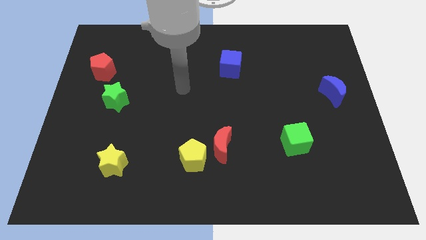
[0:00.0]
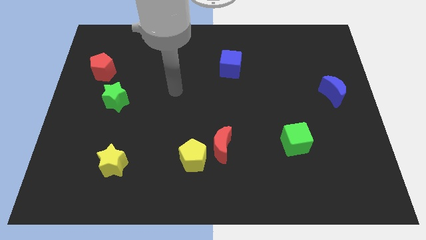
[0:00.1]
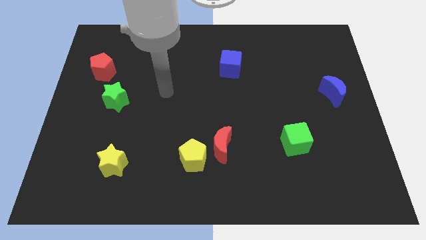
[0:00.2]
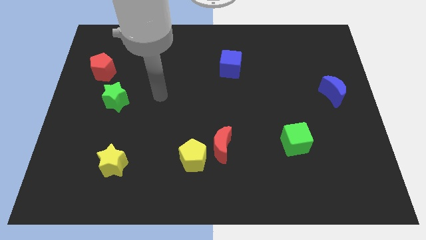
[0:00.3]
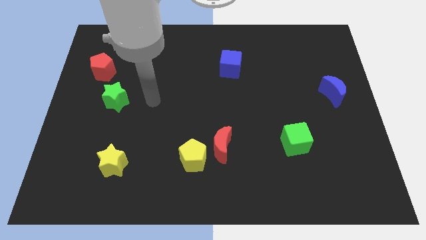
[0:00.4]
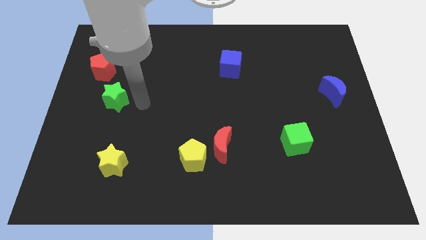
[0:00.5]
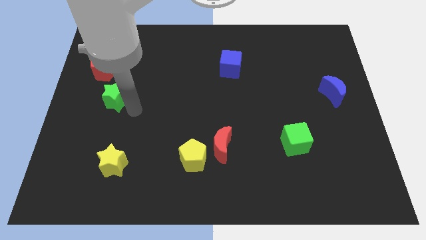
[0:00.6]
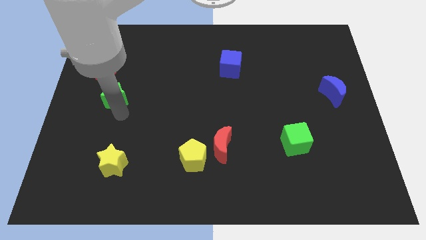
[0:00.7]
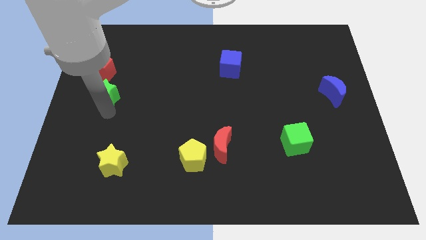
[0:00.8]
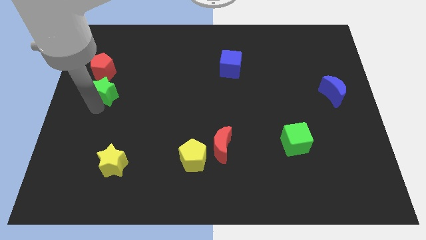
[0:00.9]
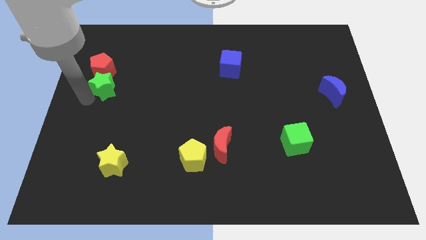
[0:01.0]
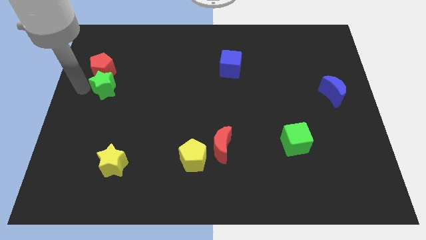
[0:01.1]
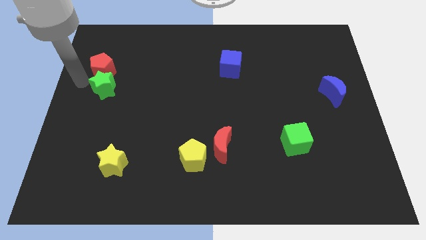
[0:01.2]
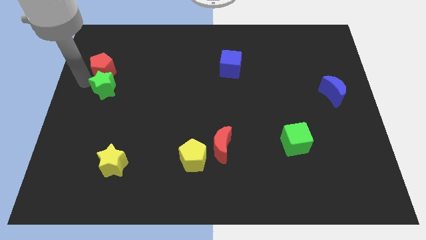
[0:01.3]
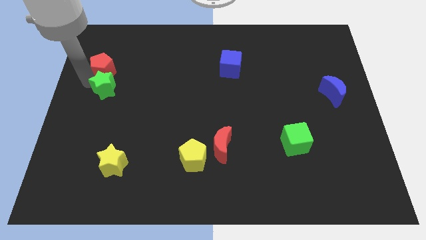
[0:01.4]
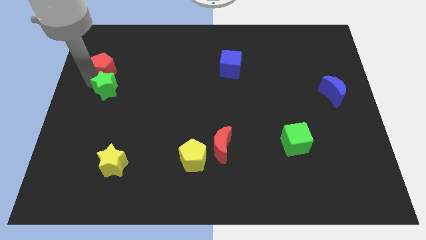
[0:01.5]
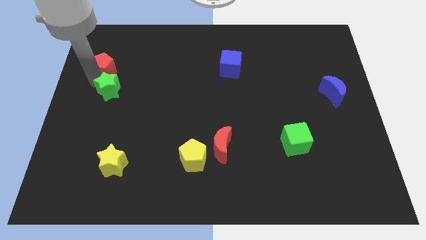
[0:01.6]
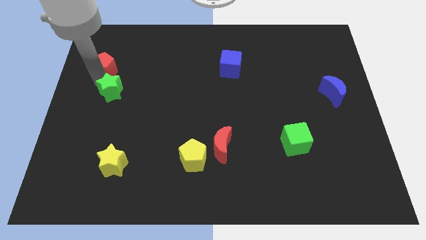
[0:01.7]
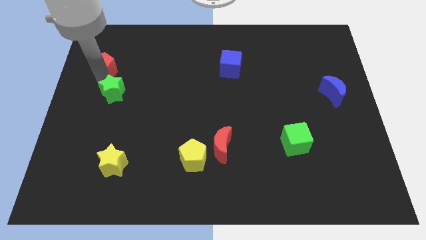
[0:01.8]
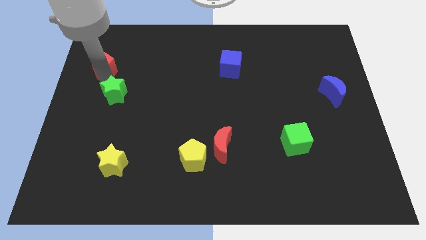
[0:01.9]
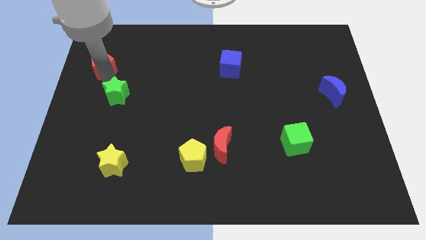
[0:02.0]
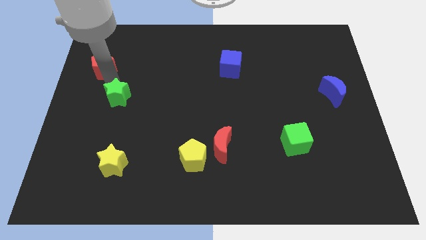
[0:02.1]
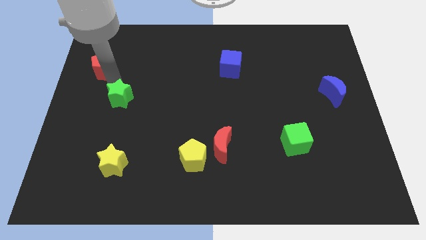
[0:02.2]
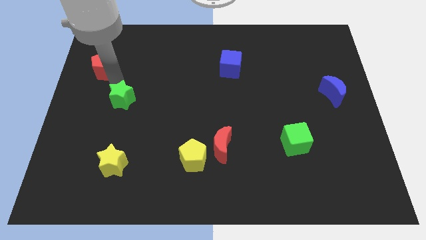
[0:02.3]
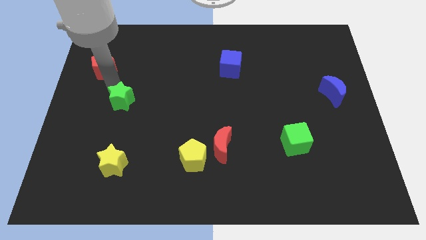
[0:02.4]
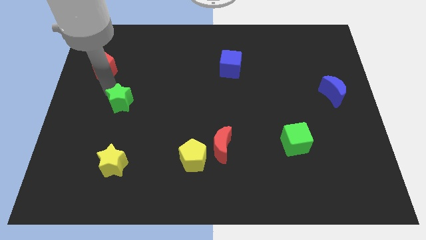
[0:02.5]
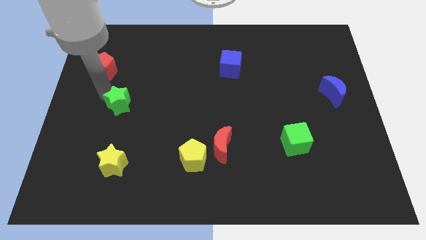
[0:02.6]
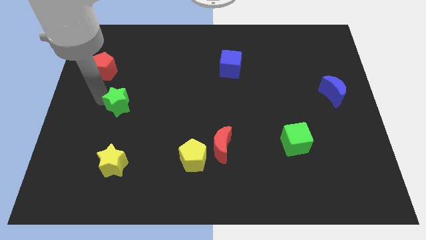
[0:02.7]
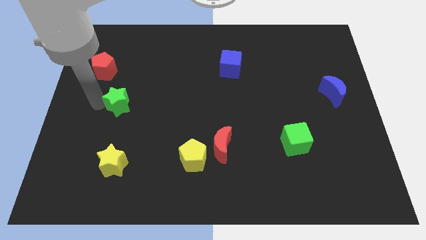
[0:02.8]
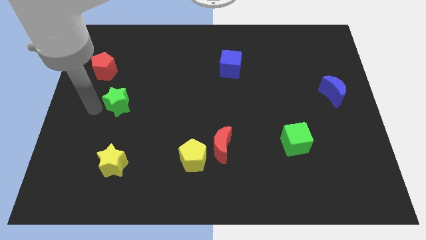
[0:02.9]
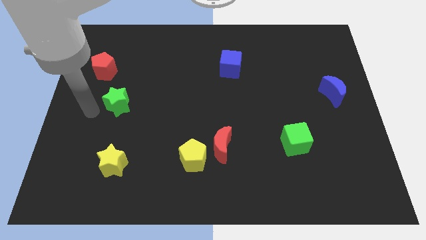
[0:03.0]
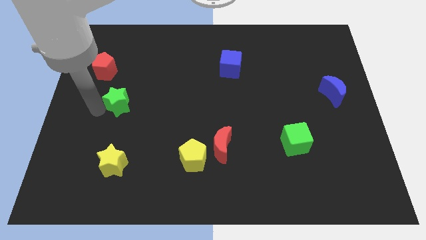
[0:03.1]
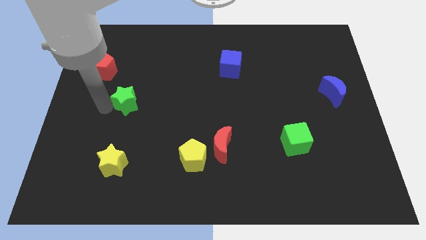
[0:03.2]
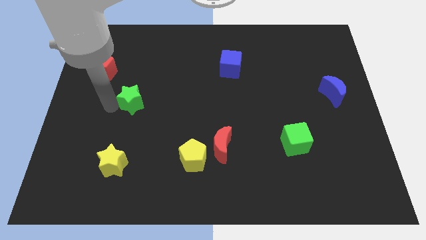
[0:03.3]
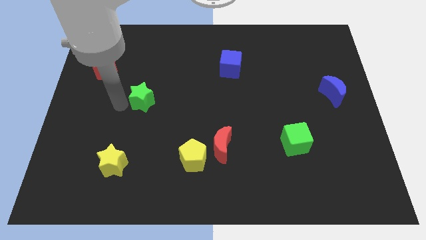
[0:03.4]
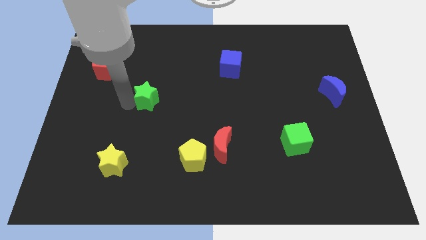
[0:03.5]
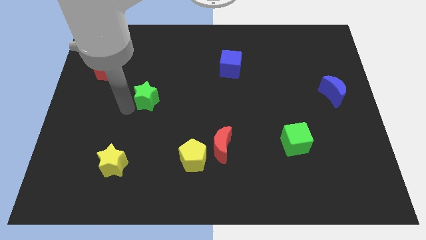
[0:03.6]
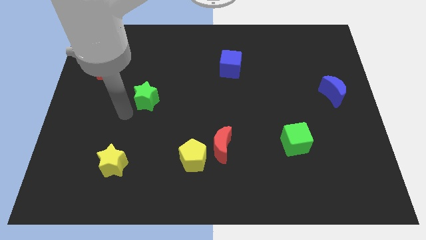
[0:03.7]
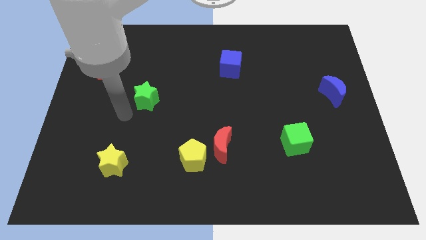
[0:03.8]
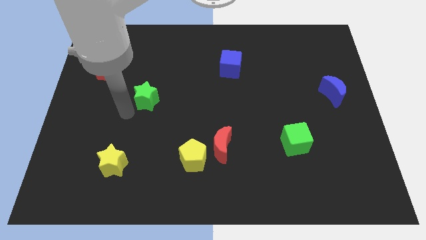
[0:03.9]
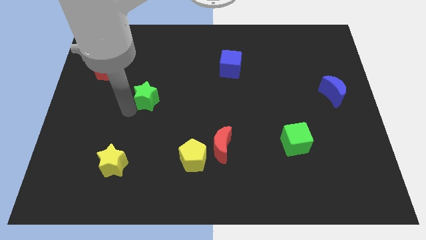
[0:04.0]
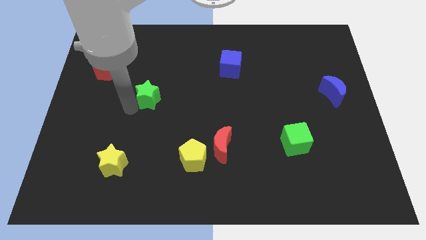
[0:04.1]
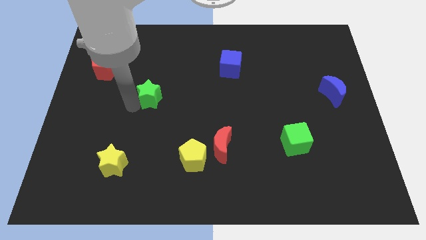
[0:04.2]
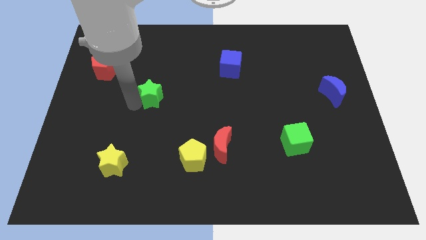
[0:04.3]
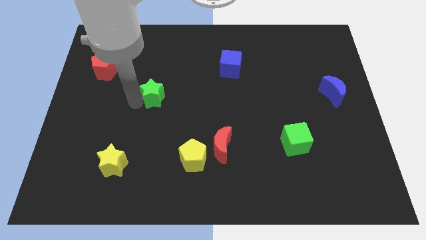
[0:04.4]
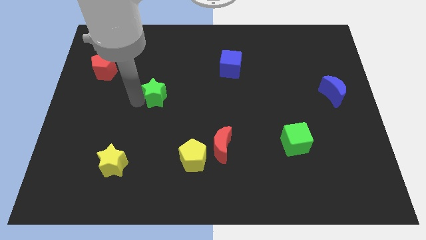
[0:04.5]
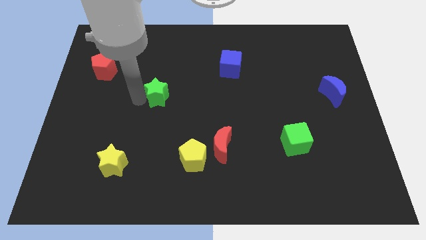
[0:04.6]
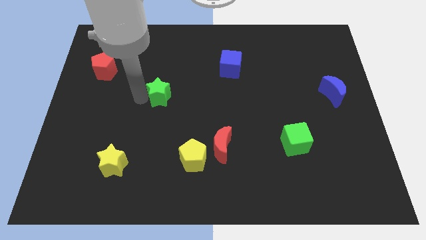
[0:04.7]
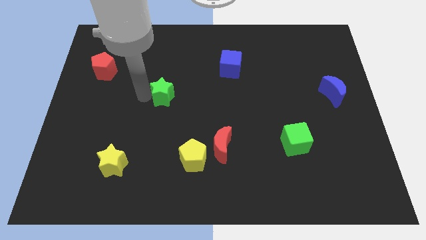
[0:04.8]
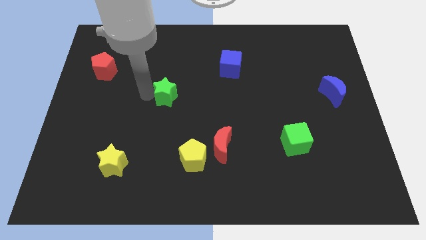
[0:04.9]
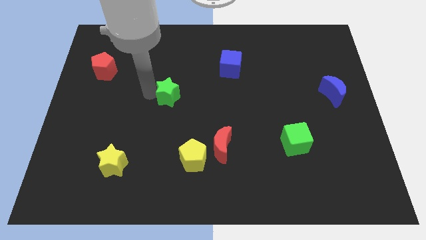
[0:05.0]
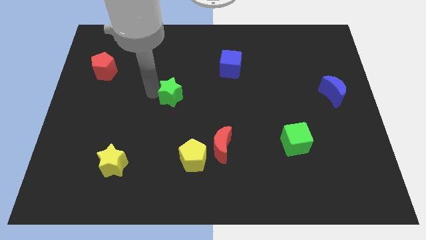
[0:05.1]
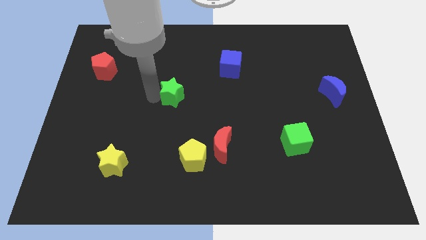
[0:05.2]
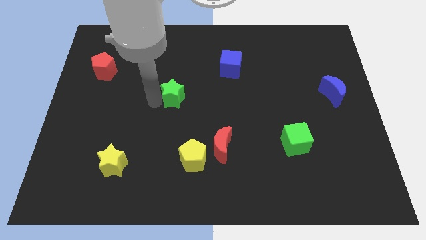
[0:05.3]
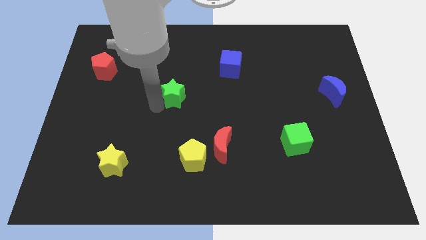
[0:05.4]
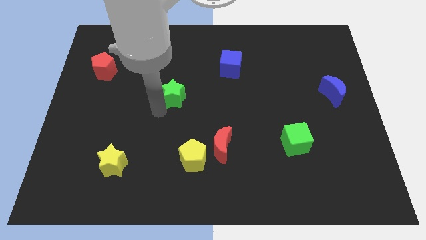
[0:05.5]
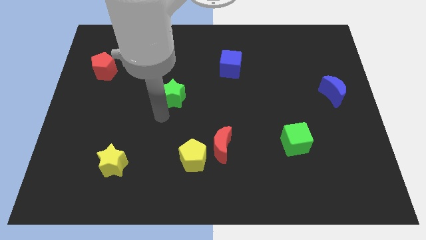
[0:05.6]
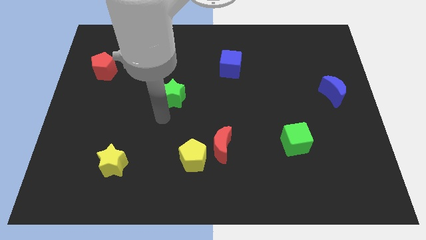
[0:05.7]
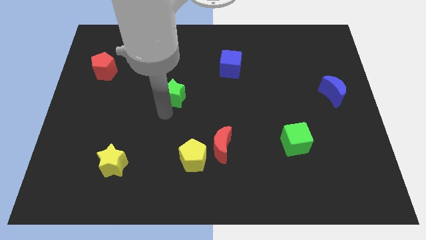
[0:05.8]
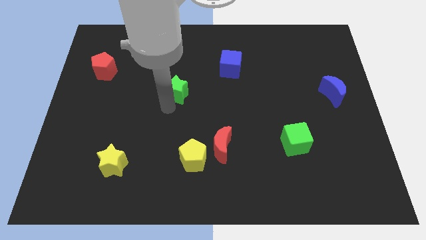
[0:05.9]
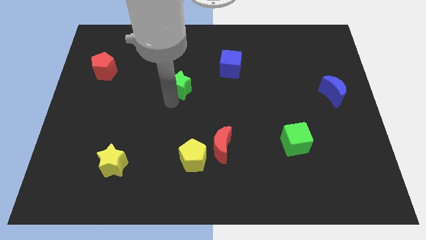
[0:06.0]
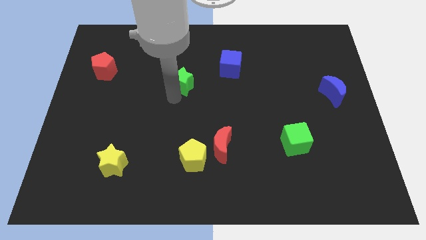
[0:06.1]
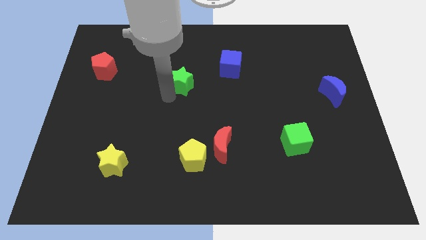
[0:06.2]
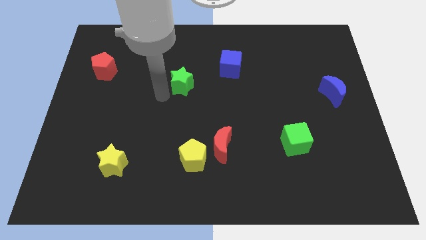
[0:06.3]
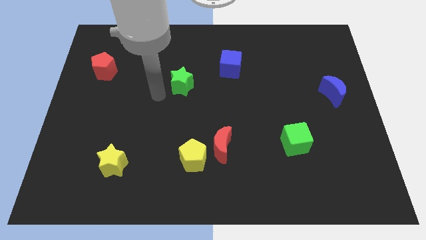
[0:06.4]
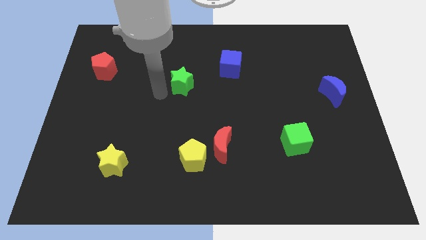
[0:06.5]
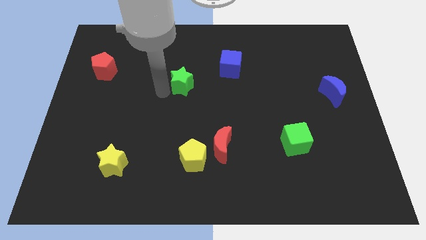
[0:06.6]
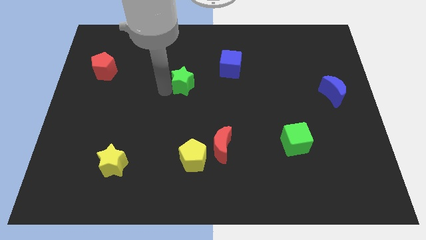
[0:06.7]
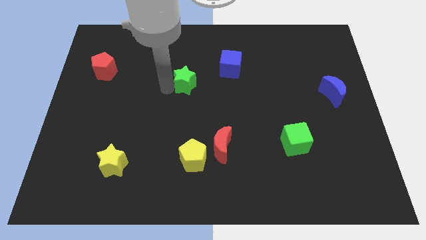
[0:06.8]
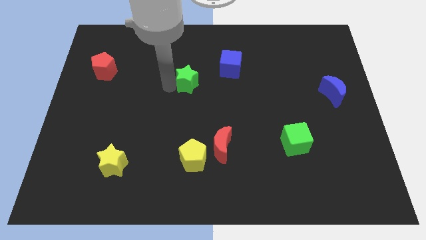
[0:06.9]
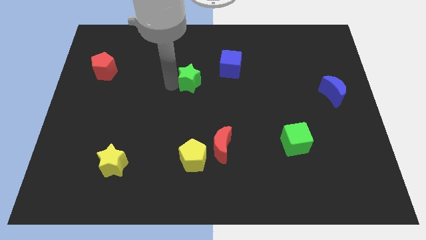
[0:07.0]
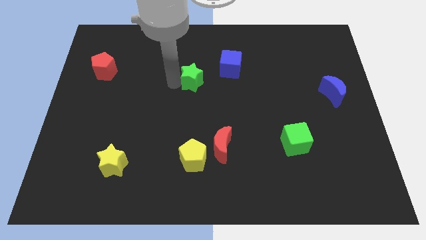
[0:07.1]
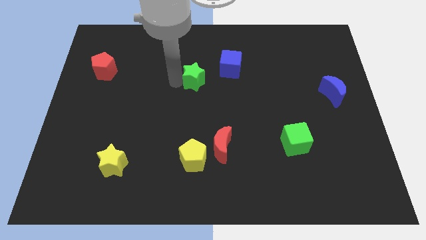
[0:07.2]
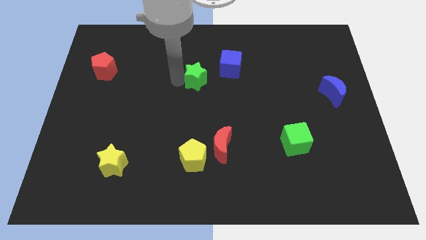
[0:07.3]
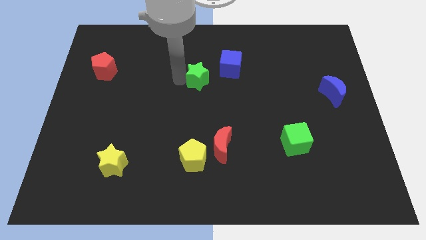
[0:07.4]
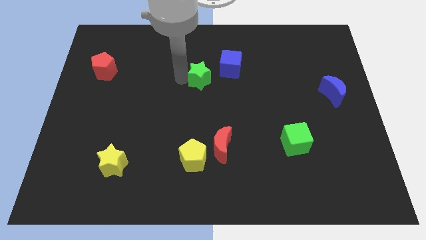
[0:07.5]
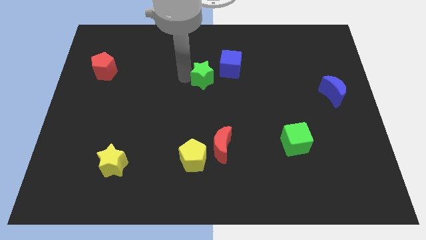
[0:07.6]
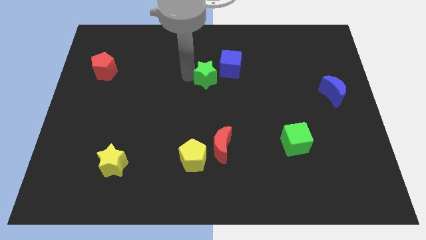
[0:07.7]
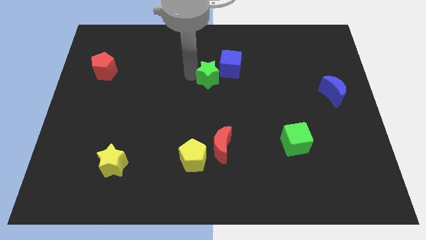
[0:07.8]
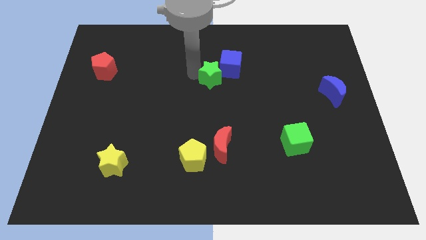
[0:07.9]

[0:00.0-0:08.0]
move the green star close to the blue cube
